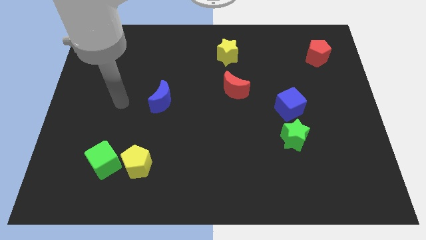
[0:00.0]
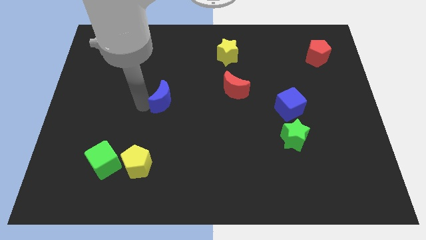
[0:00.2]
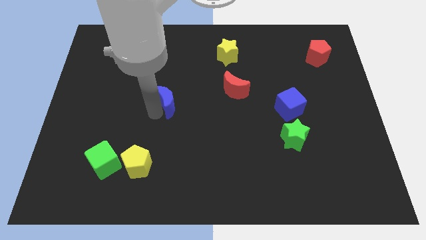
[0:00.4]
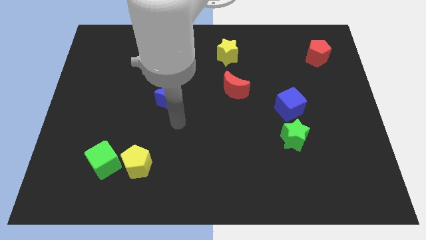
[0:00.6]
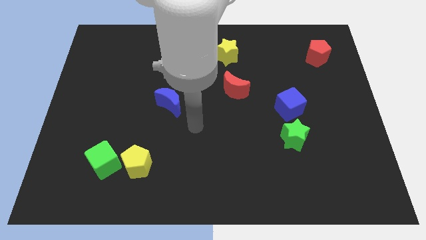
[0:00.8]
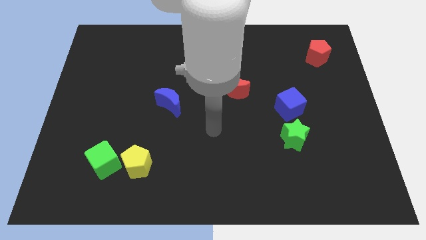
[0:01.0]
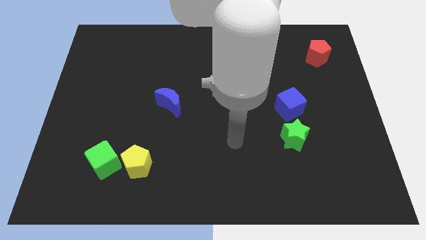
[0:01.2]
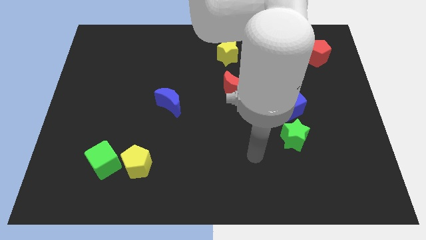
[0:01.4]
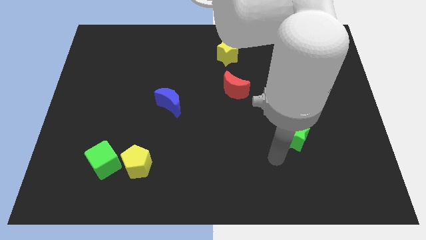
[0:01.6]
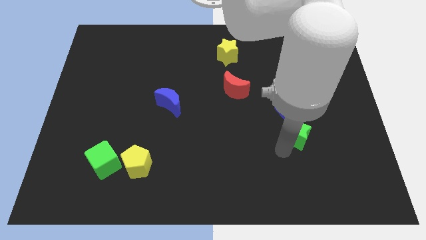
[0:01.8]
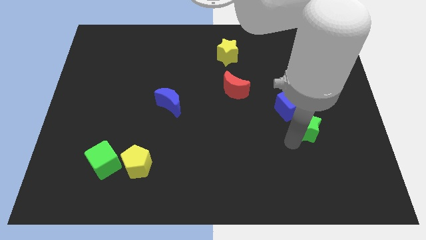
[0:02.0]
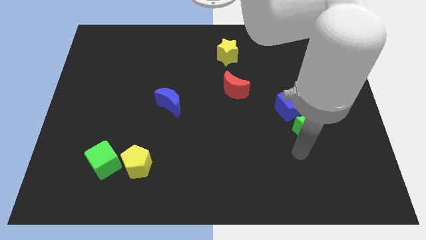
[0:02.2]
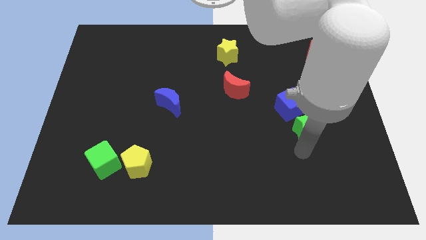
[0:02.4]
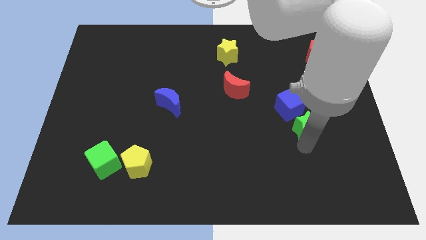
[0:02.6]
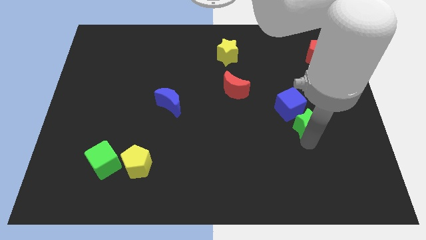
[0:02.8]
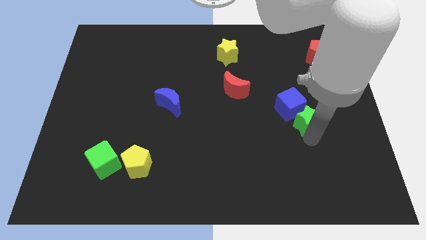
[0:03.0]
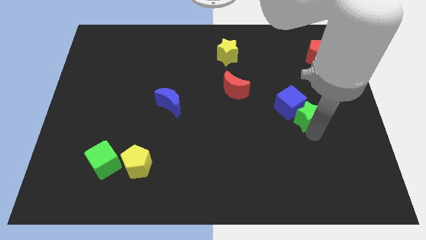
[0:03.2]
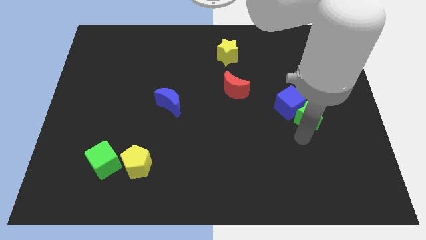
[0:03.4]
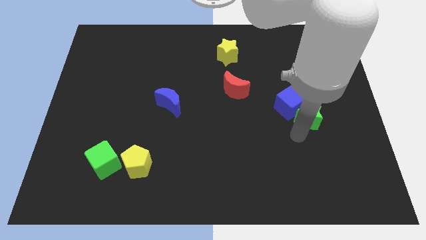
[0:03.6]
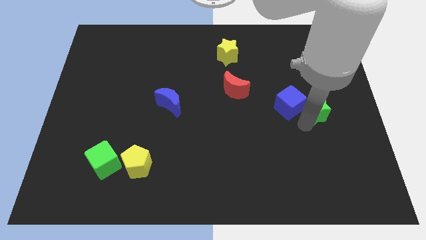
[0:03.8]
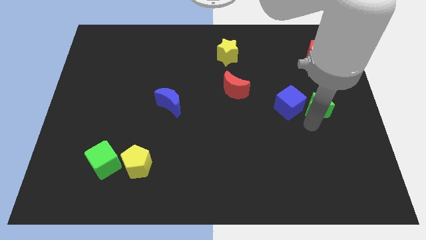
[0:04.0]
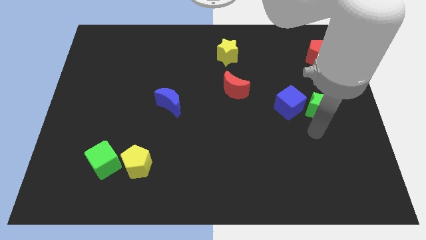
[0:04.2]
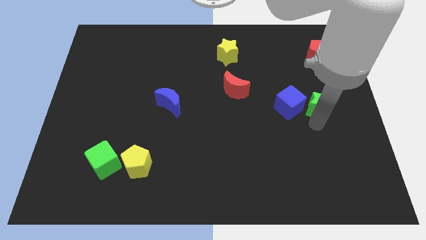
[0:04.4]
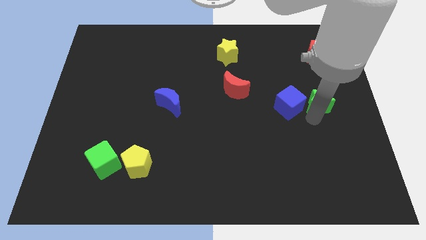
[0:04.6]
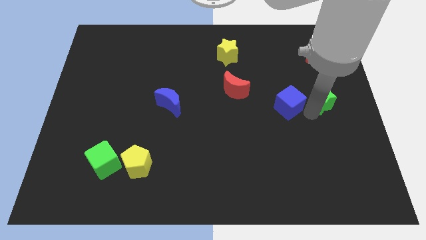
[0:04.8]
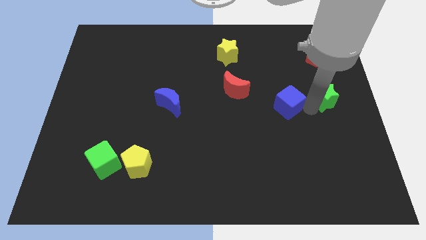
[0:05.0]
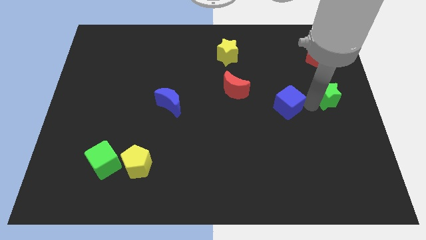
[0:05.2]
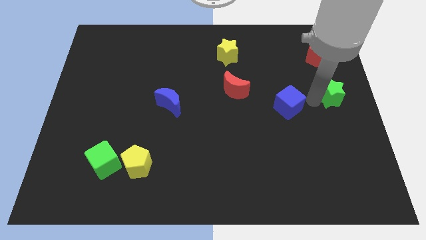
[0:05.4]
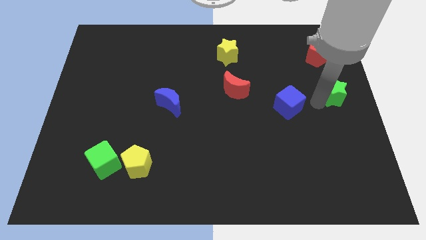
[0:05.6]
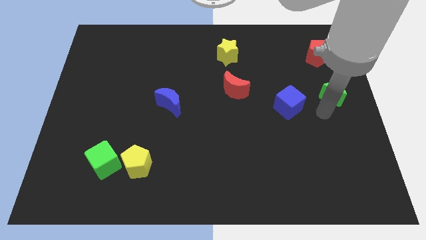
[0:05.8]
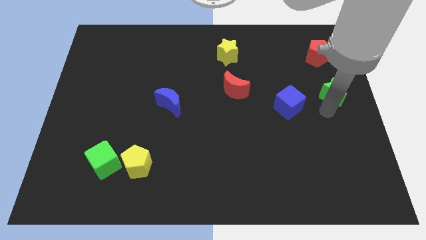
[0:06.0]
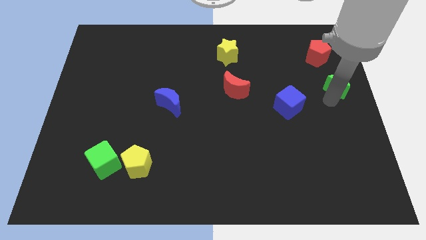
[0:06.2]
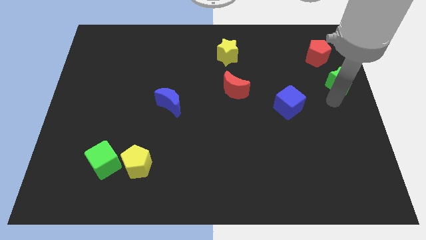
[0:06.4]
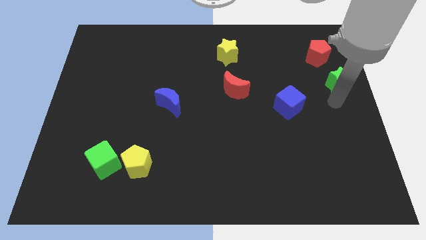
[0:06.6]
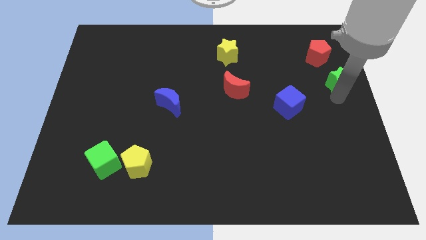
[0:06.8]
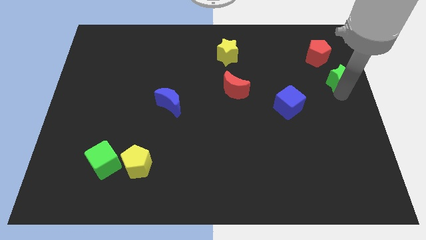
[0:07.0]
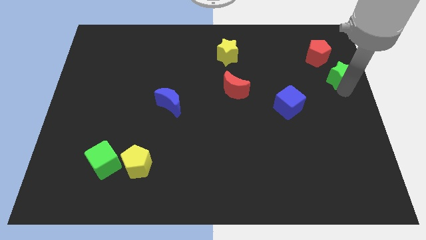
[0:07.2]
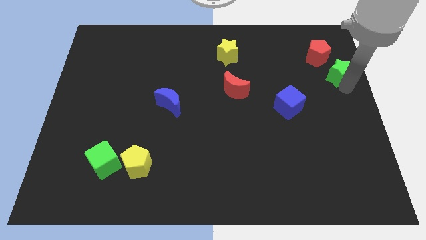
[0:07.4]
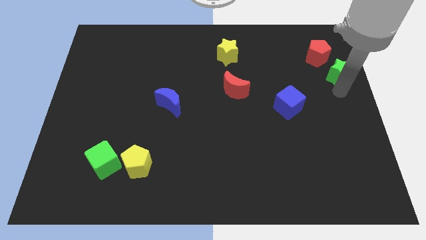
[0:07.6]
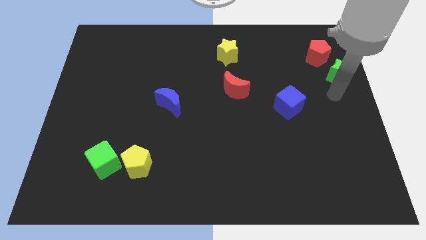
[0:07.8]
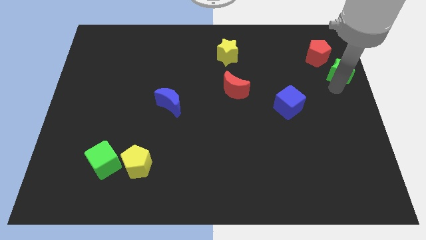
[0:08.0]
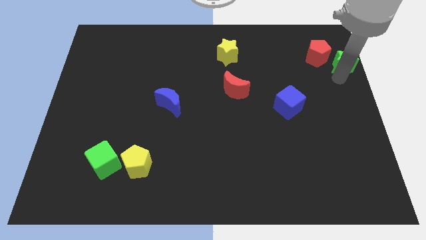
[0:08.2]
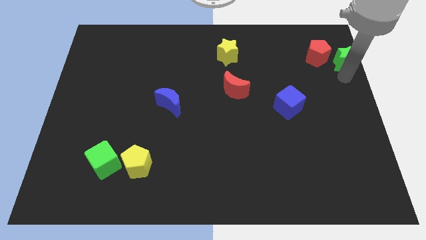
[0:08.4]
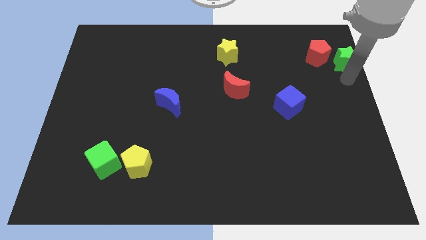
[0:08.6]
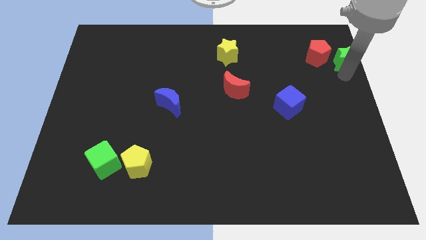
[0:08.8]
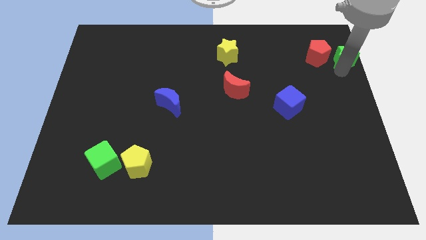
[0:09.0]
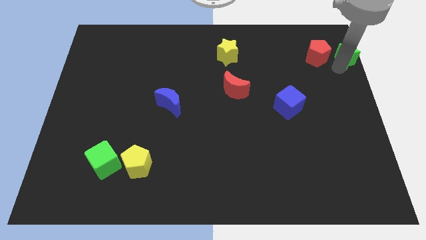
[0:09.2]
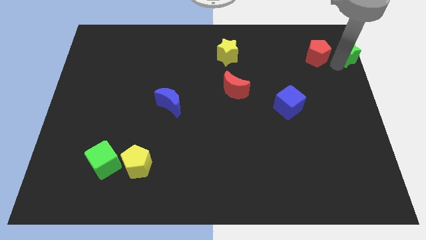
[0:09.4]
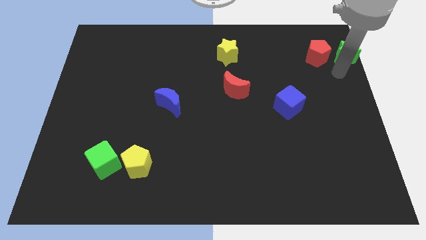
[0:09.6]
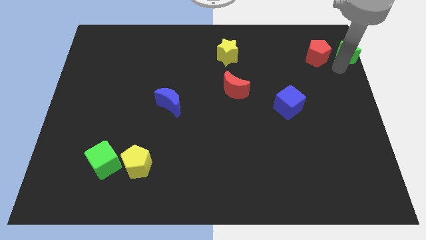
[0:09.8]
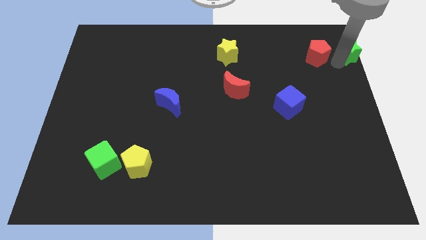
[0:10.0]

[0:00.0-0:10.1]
put the green star to the upper right corner
